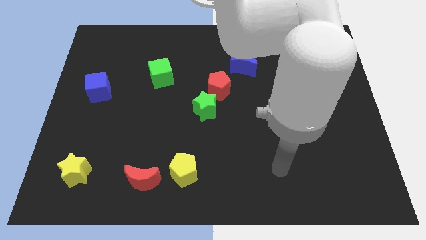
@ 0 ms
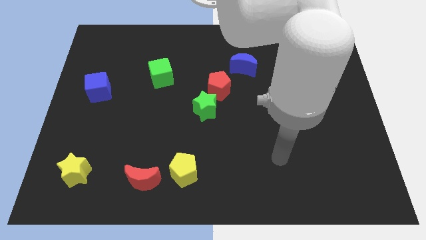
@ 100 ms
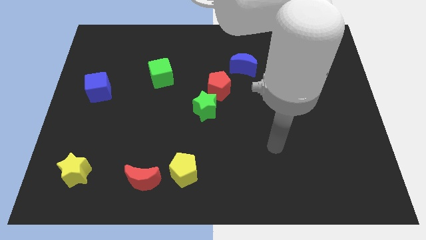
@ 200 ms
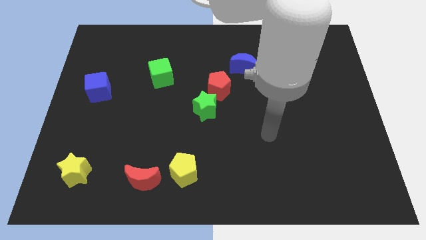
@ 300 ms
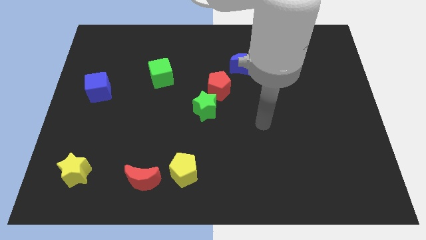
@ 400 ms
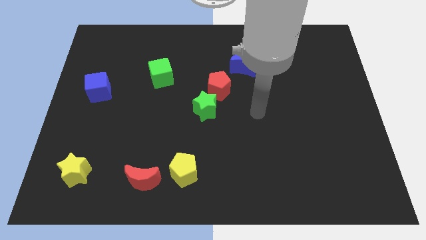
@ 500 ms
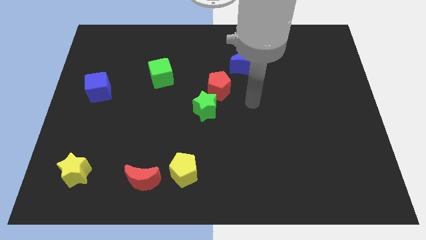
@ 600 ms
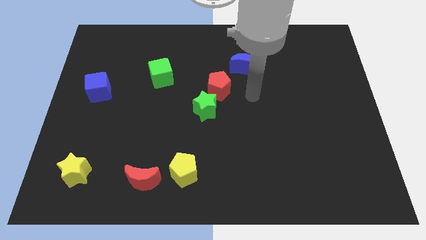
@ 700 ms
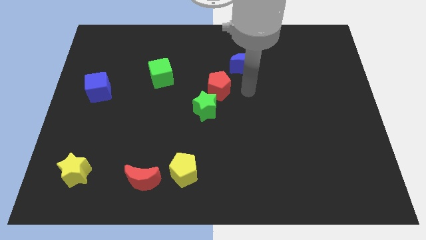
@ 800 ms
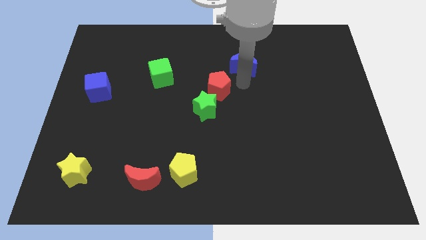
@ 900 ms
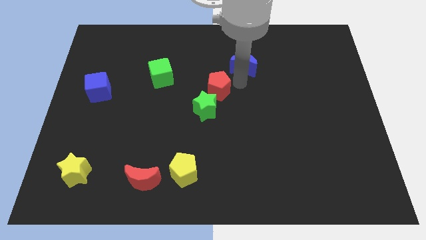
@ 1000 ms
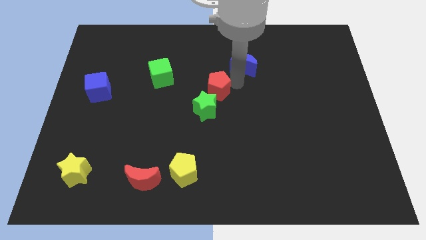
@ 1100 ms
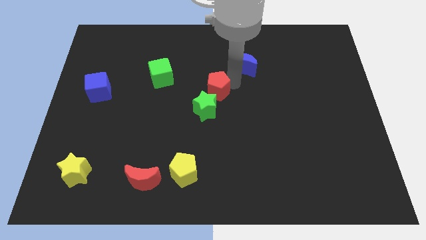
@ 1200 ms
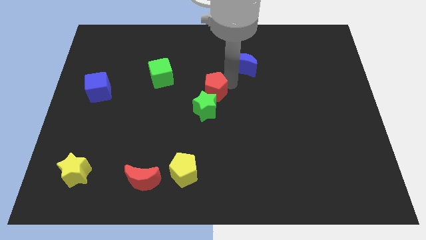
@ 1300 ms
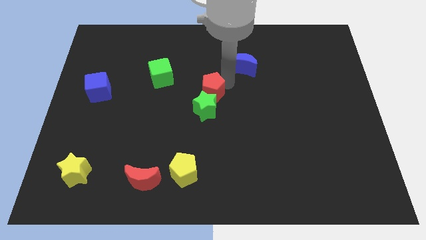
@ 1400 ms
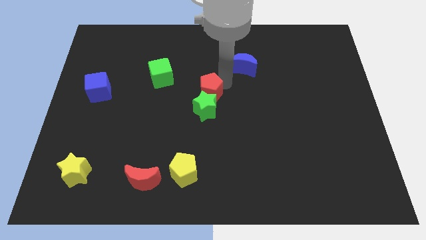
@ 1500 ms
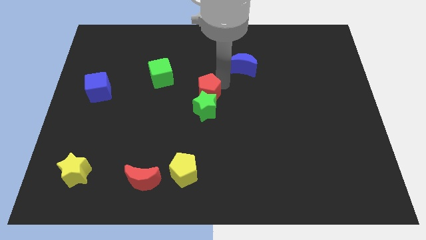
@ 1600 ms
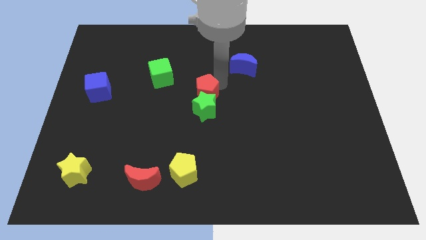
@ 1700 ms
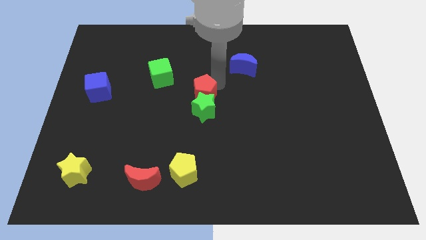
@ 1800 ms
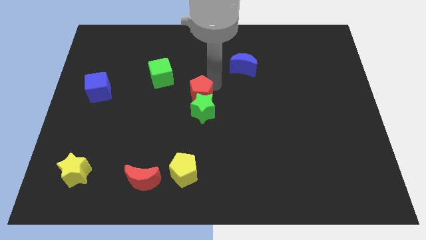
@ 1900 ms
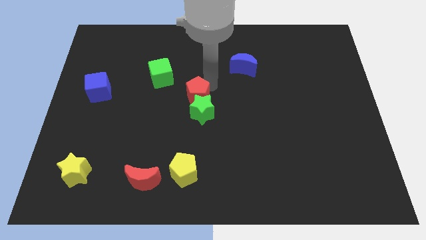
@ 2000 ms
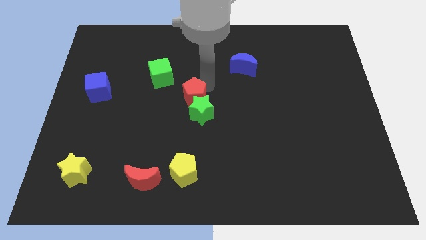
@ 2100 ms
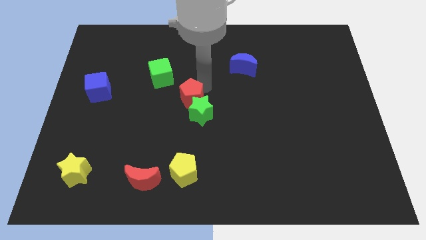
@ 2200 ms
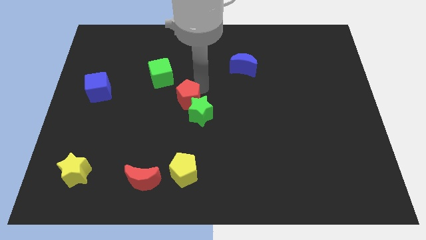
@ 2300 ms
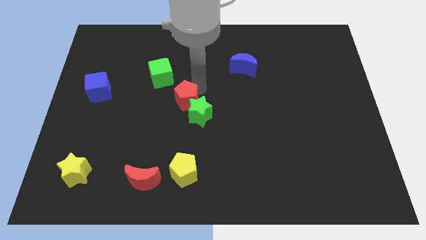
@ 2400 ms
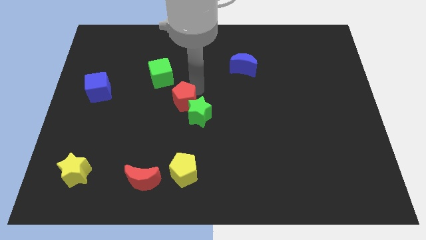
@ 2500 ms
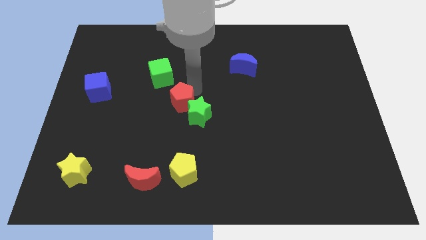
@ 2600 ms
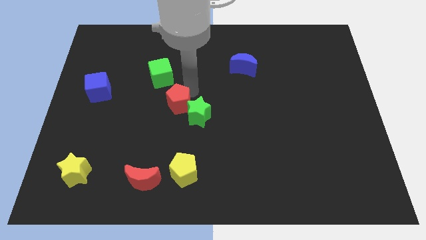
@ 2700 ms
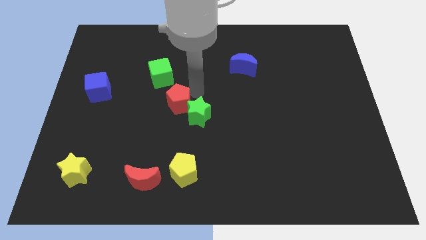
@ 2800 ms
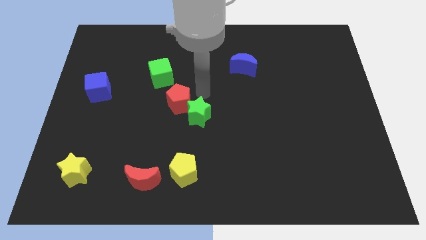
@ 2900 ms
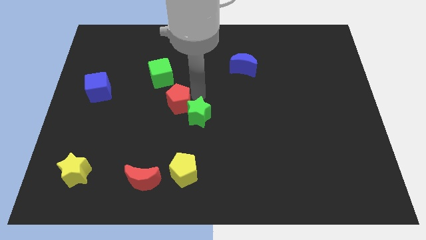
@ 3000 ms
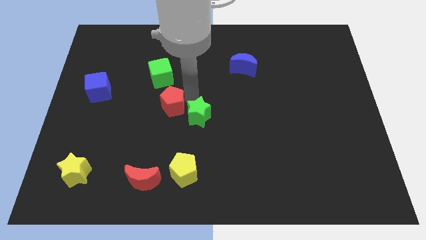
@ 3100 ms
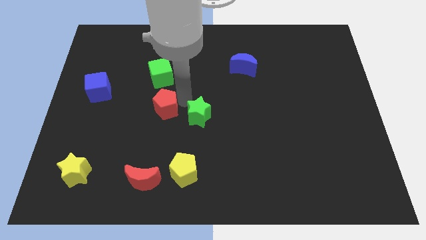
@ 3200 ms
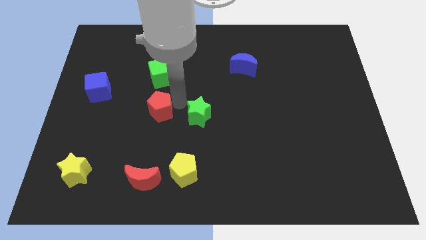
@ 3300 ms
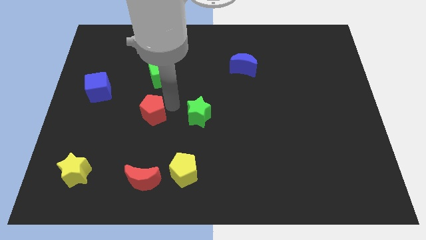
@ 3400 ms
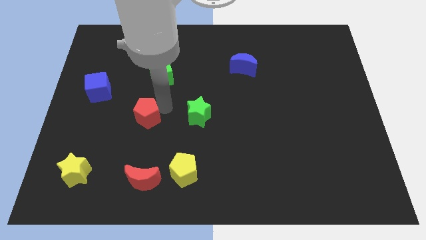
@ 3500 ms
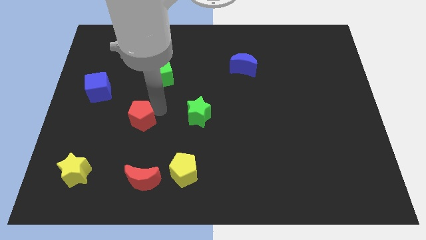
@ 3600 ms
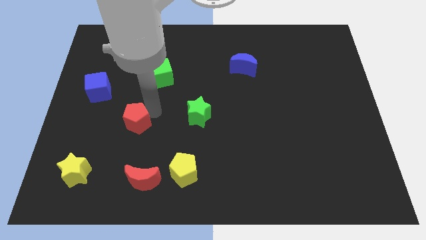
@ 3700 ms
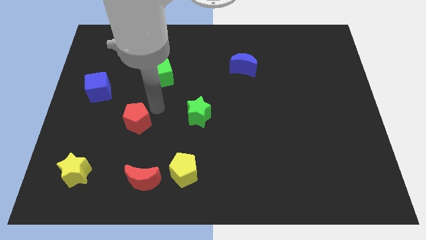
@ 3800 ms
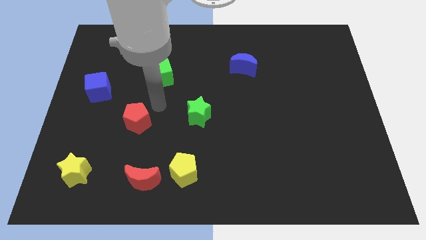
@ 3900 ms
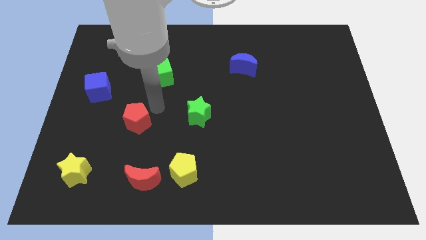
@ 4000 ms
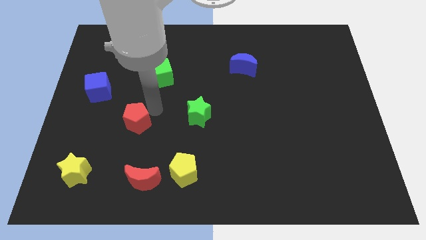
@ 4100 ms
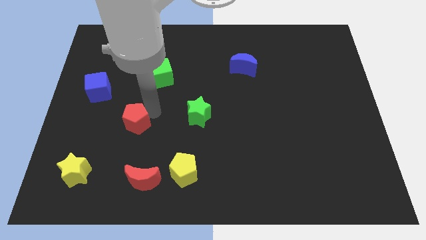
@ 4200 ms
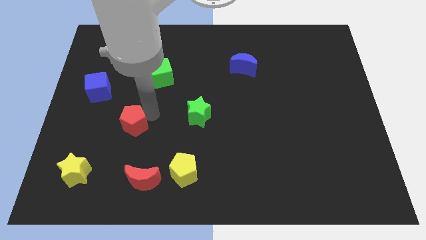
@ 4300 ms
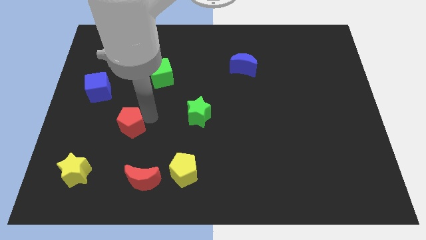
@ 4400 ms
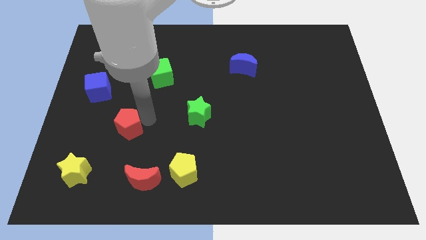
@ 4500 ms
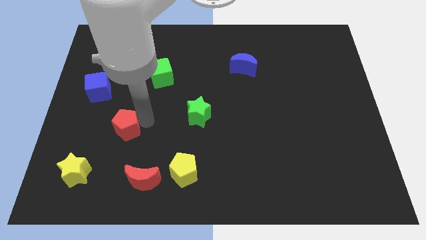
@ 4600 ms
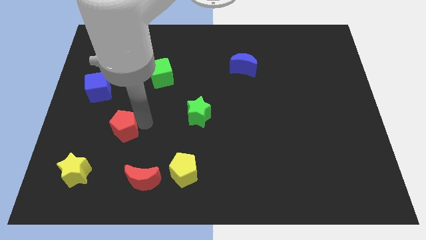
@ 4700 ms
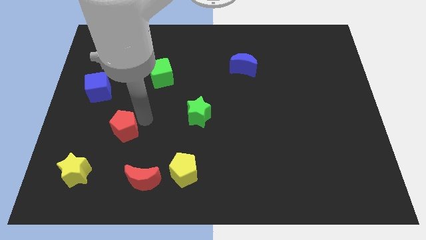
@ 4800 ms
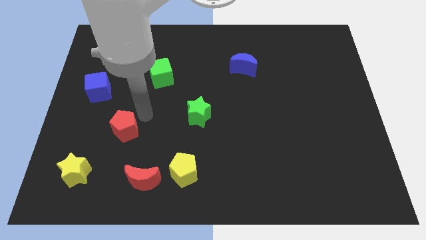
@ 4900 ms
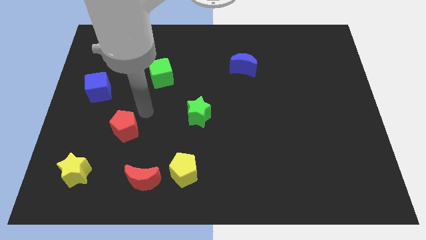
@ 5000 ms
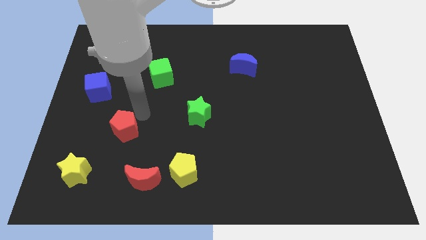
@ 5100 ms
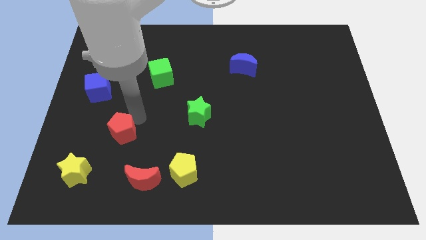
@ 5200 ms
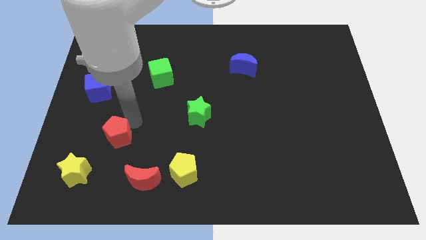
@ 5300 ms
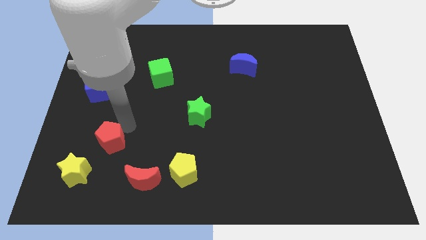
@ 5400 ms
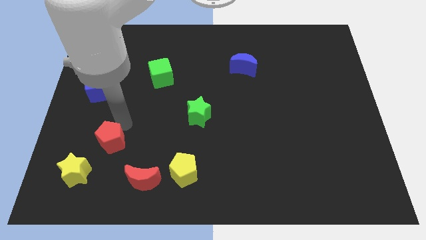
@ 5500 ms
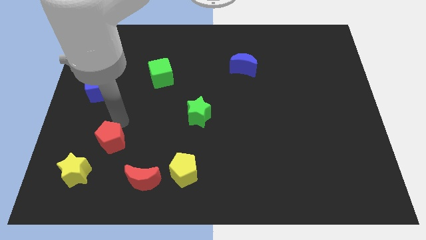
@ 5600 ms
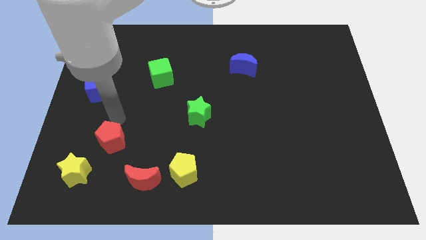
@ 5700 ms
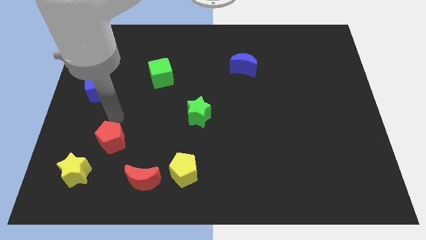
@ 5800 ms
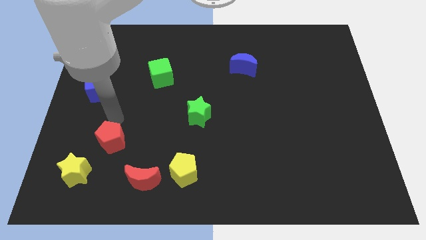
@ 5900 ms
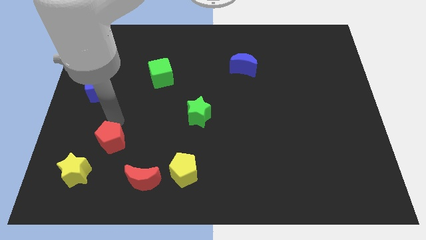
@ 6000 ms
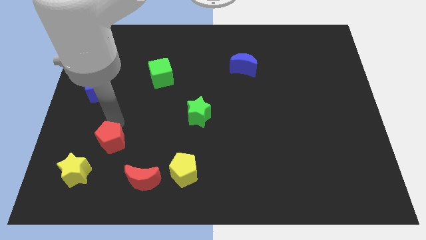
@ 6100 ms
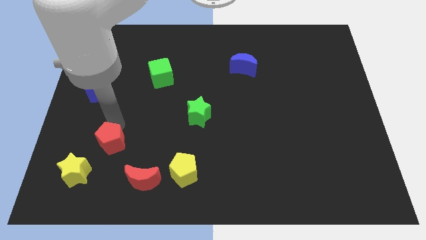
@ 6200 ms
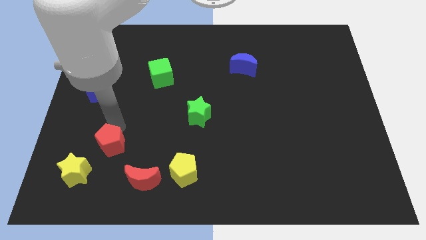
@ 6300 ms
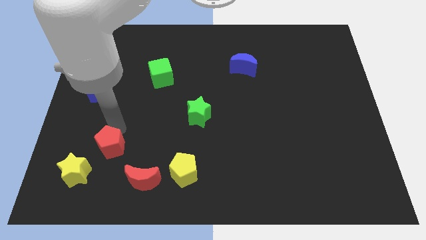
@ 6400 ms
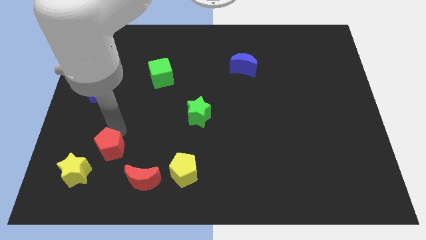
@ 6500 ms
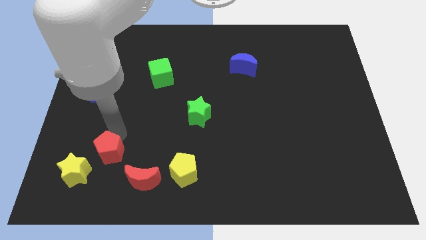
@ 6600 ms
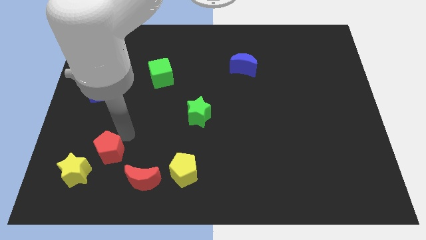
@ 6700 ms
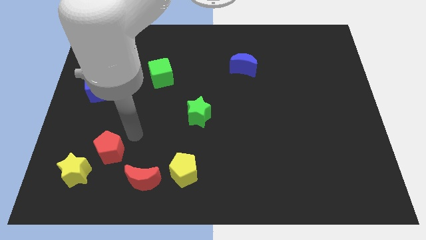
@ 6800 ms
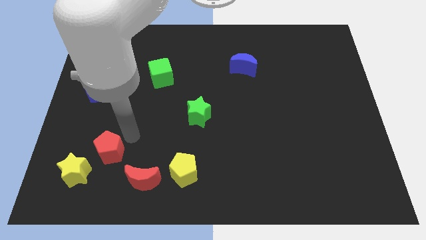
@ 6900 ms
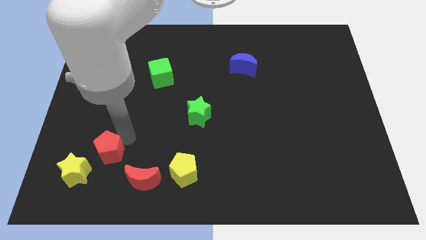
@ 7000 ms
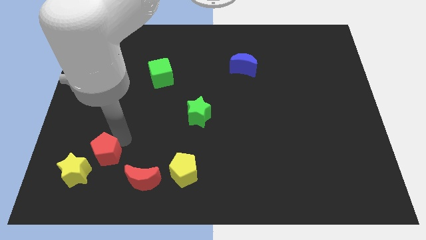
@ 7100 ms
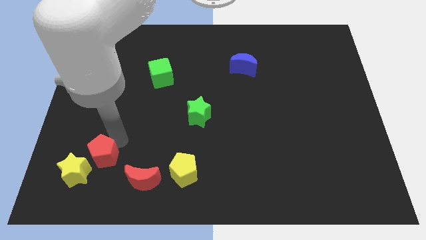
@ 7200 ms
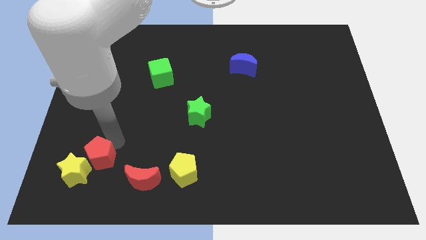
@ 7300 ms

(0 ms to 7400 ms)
slide the red pentagon towards the yellow star
